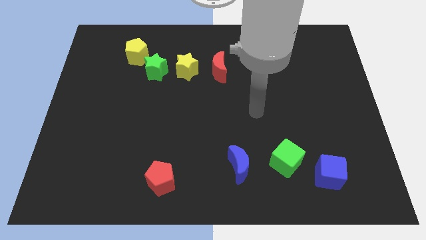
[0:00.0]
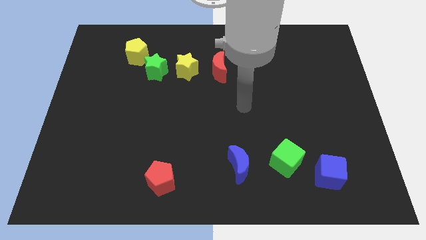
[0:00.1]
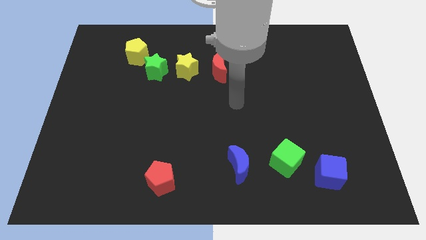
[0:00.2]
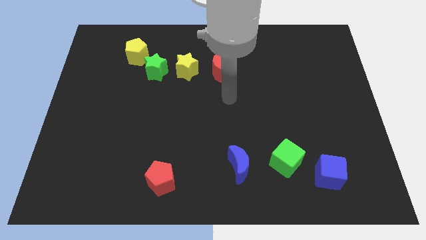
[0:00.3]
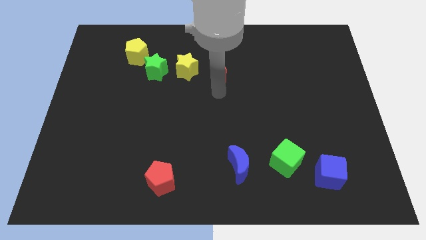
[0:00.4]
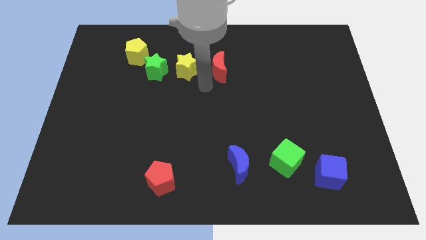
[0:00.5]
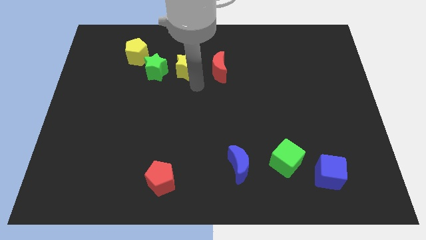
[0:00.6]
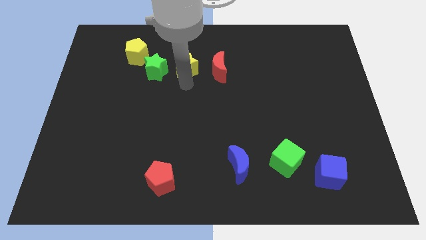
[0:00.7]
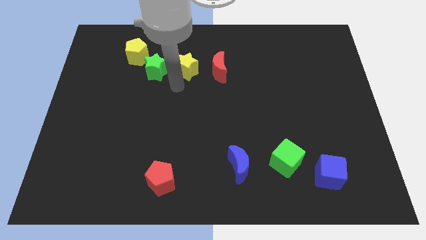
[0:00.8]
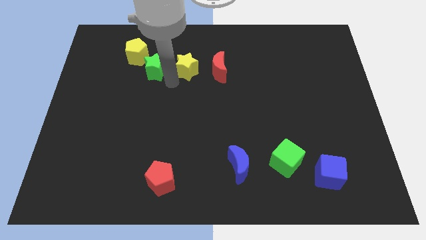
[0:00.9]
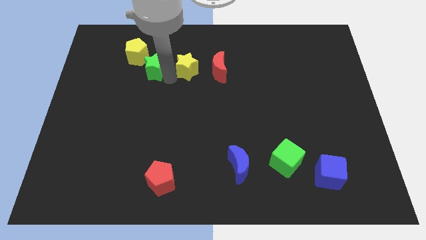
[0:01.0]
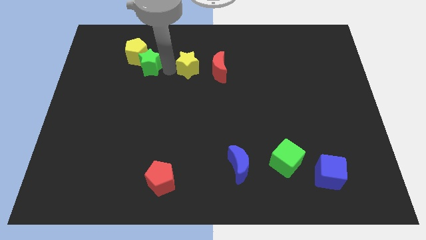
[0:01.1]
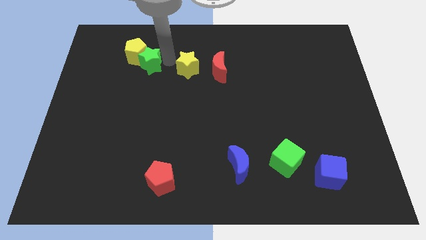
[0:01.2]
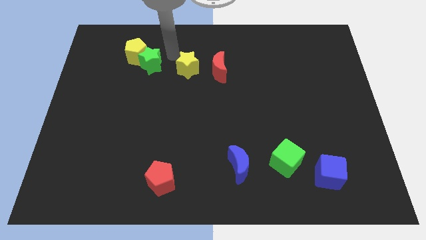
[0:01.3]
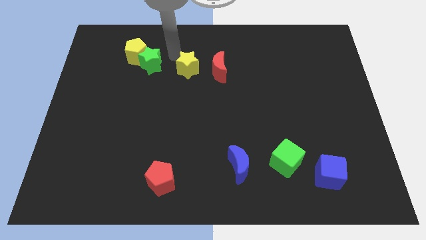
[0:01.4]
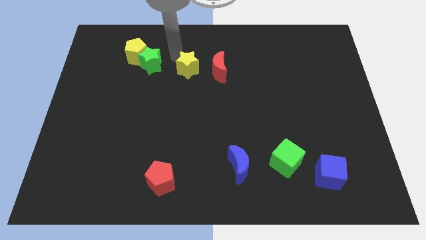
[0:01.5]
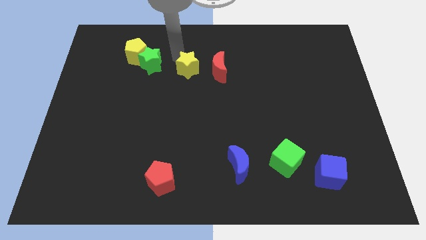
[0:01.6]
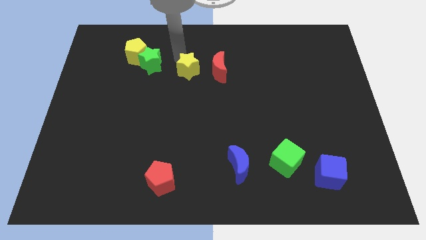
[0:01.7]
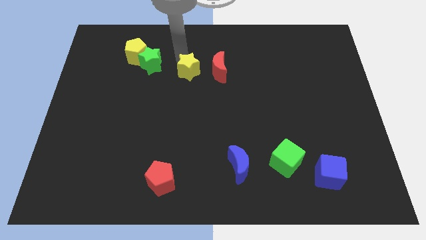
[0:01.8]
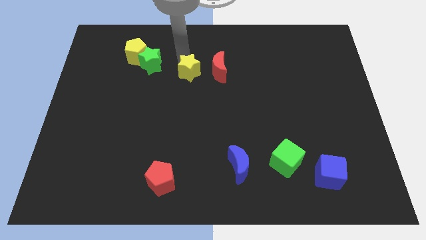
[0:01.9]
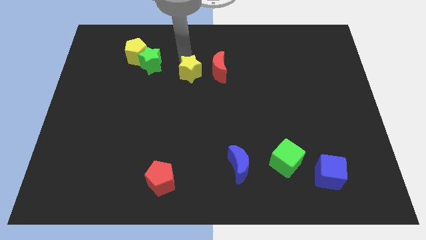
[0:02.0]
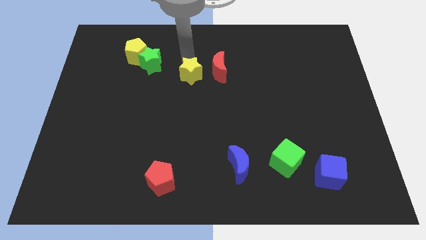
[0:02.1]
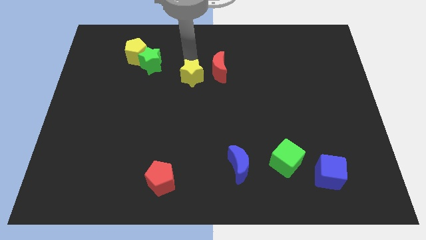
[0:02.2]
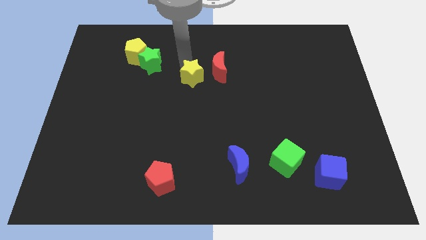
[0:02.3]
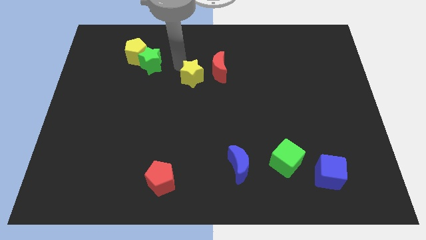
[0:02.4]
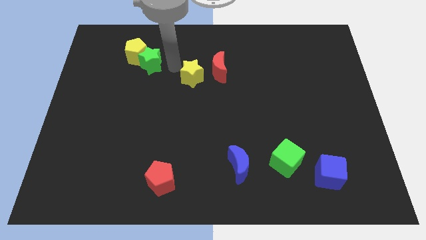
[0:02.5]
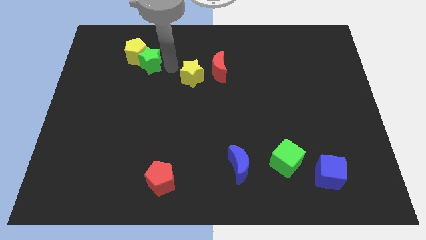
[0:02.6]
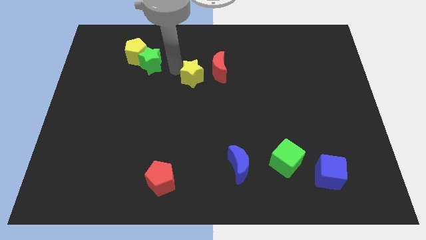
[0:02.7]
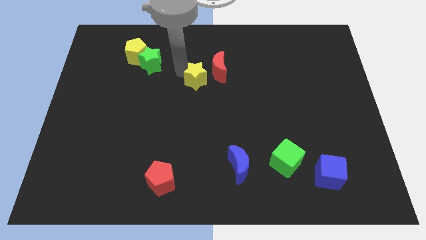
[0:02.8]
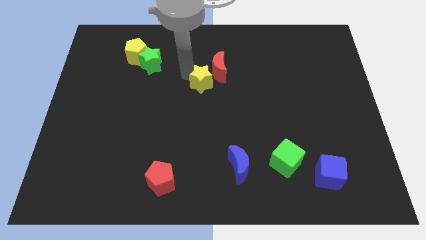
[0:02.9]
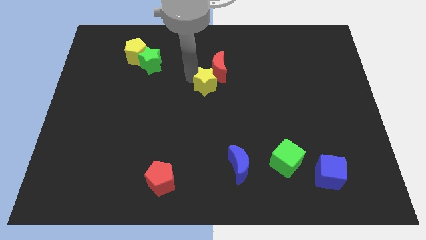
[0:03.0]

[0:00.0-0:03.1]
move the yellow star downwards and then right slightly

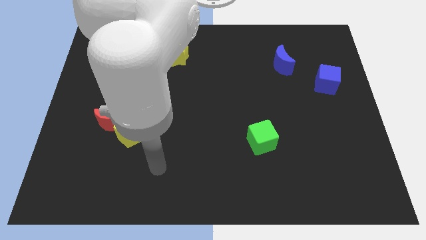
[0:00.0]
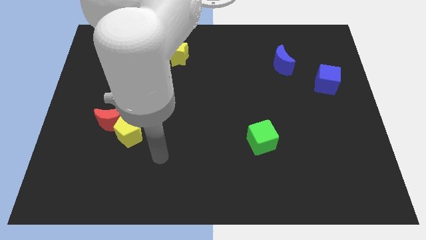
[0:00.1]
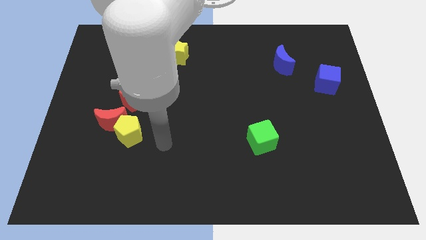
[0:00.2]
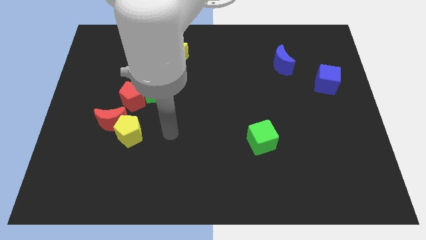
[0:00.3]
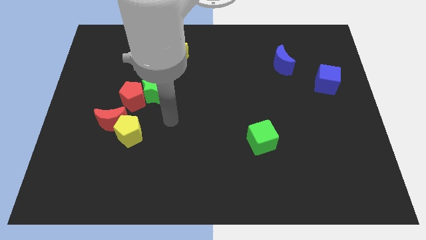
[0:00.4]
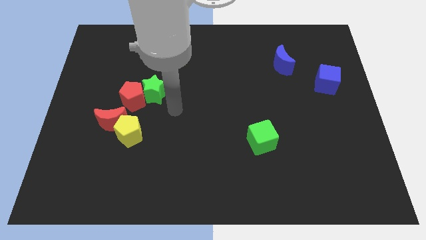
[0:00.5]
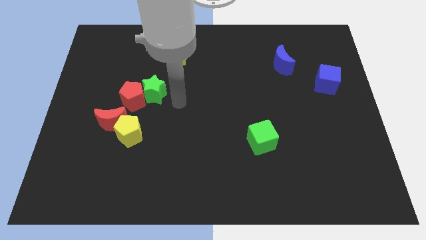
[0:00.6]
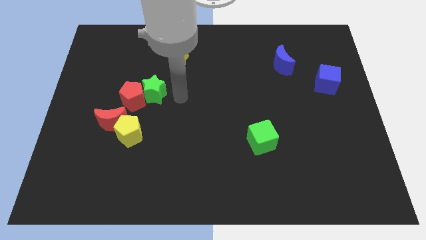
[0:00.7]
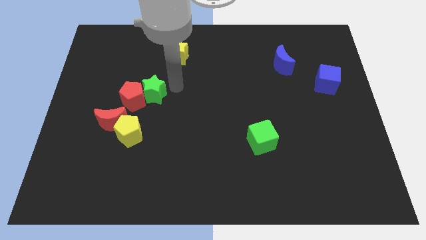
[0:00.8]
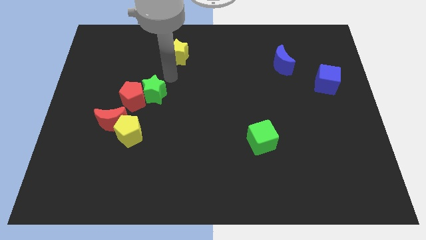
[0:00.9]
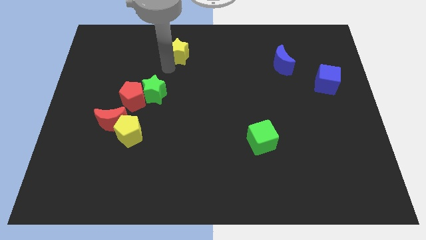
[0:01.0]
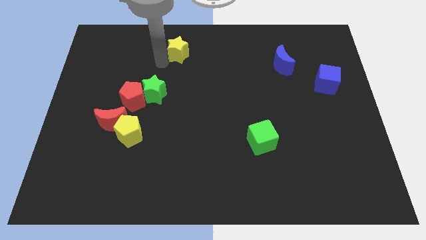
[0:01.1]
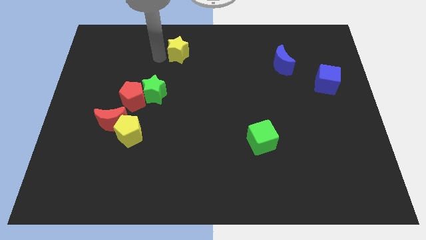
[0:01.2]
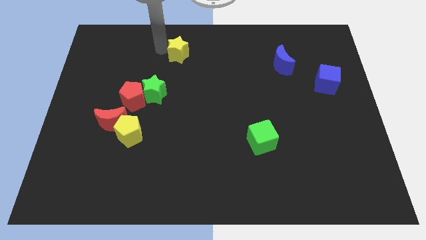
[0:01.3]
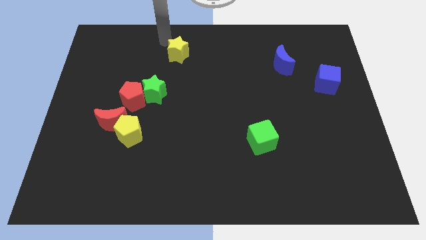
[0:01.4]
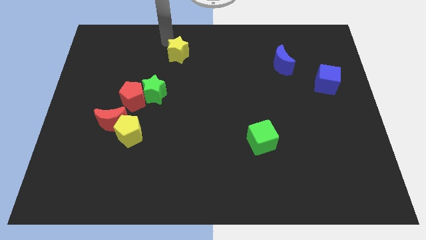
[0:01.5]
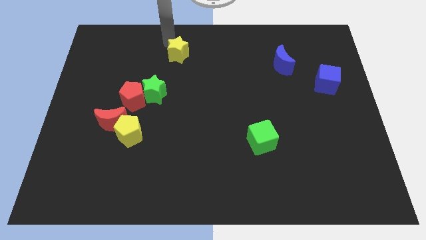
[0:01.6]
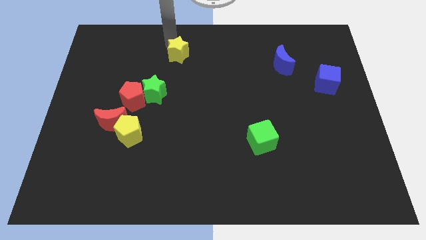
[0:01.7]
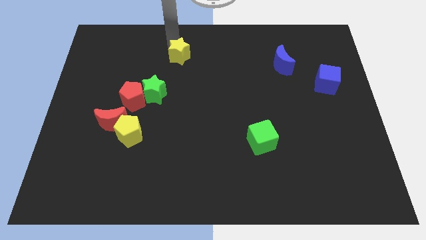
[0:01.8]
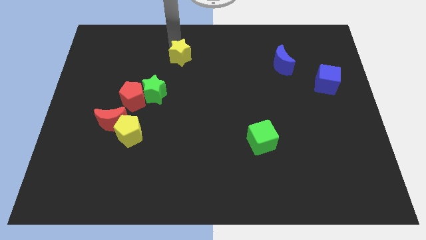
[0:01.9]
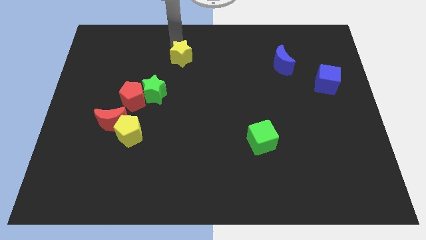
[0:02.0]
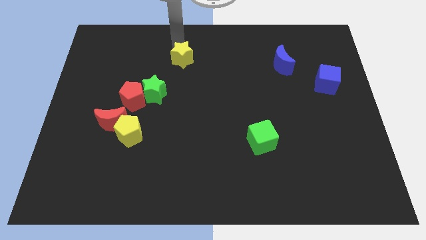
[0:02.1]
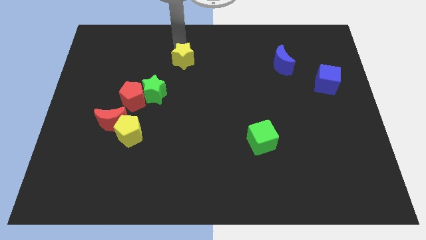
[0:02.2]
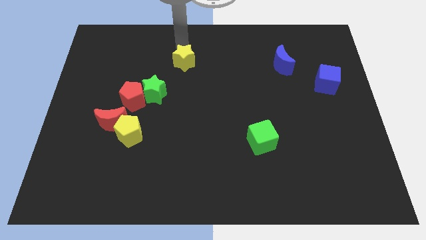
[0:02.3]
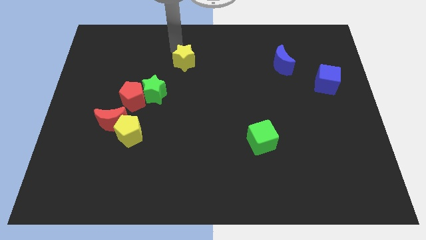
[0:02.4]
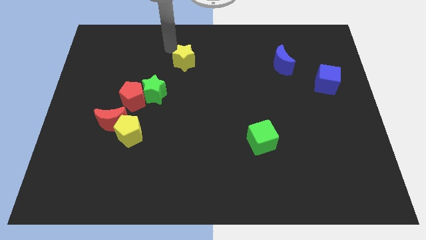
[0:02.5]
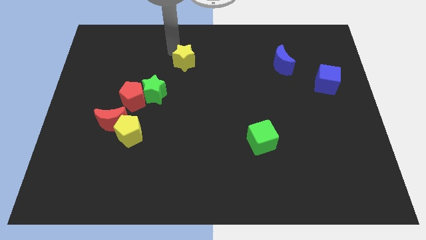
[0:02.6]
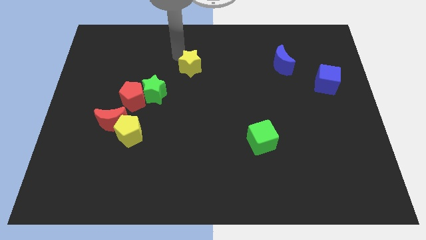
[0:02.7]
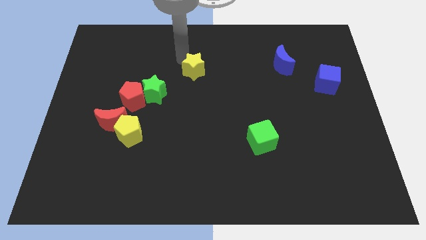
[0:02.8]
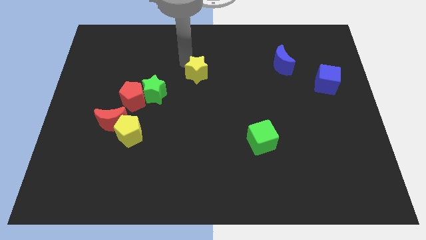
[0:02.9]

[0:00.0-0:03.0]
push the yellow star a bit downwards and right

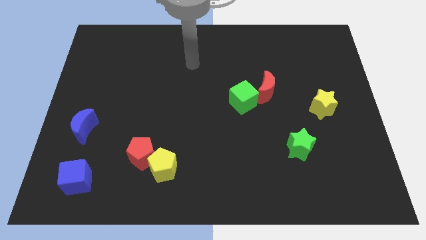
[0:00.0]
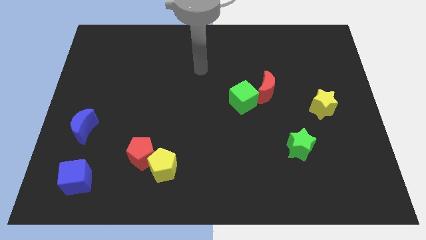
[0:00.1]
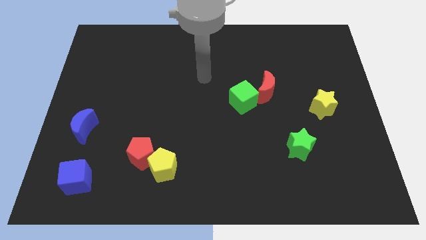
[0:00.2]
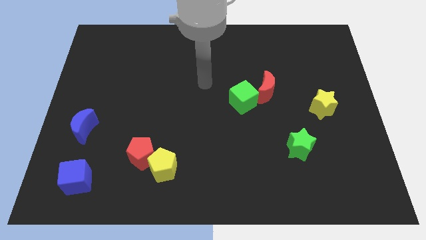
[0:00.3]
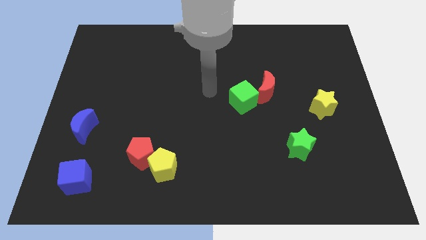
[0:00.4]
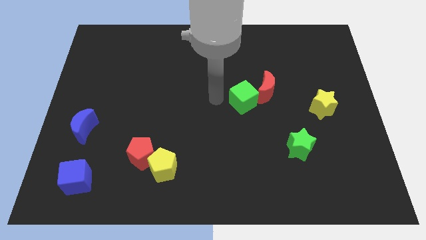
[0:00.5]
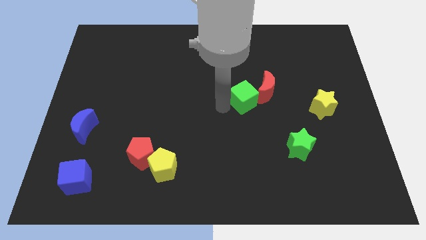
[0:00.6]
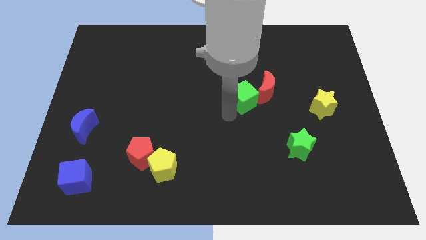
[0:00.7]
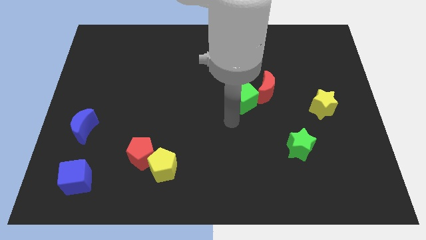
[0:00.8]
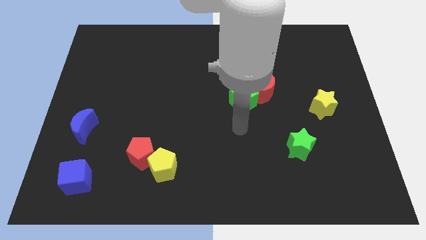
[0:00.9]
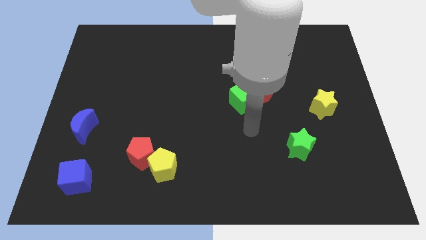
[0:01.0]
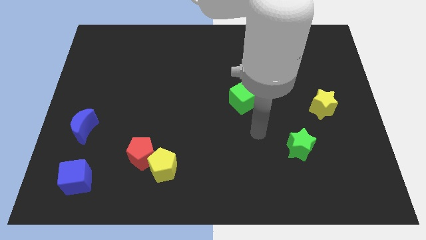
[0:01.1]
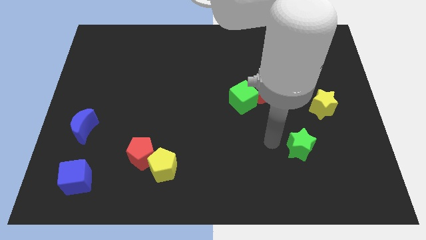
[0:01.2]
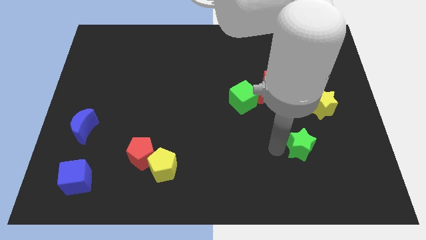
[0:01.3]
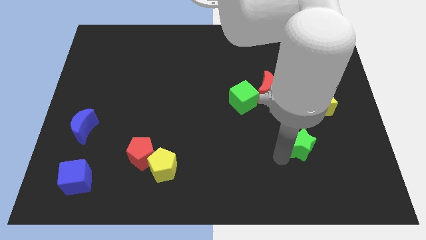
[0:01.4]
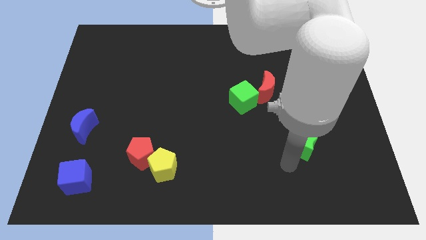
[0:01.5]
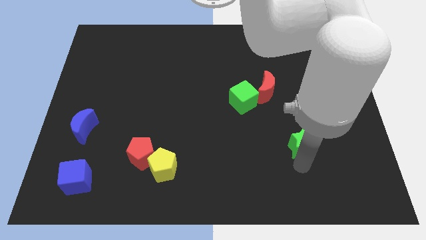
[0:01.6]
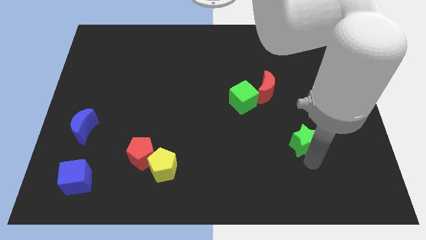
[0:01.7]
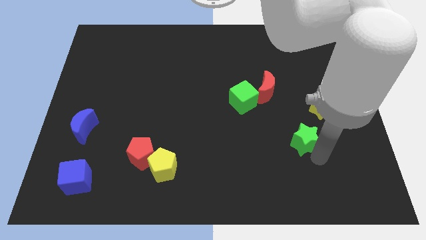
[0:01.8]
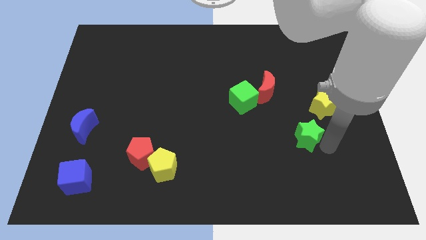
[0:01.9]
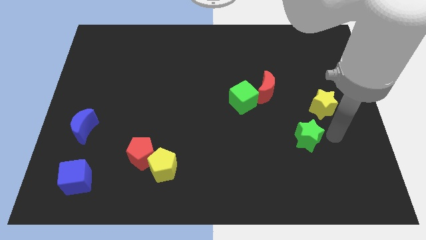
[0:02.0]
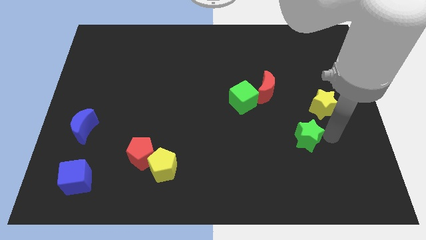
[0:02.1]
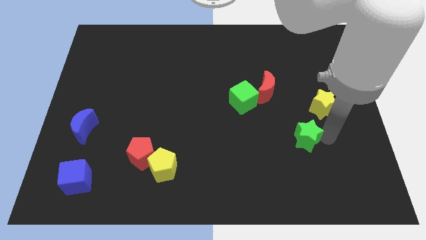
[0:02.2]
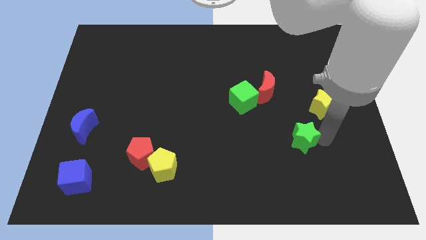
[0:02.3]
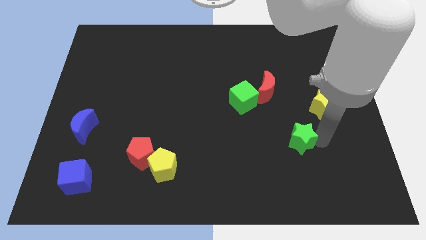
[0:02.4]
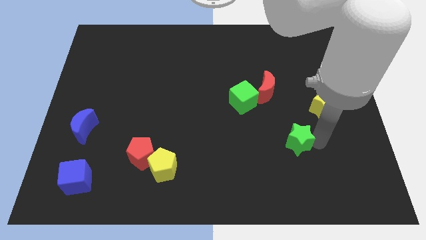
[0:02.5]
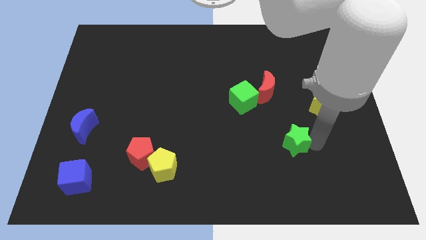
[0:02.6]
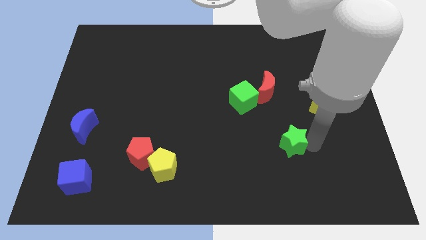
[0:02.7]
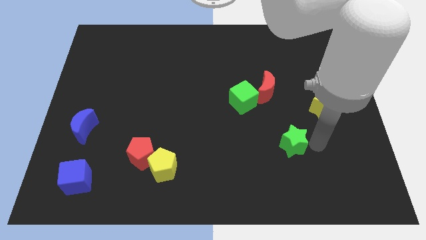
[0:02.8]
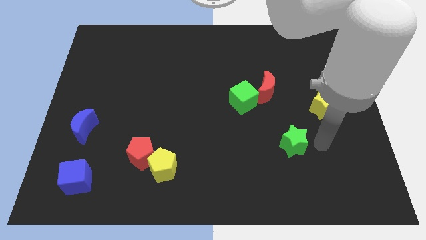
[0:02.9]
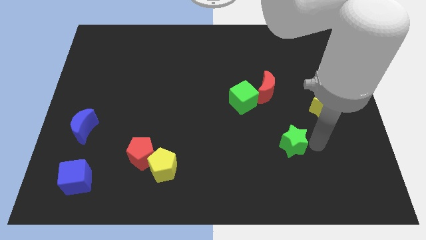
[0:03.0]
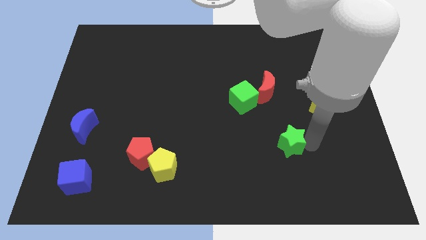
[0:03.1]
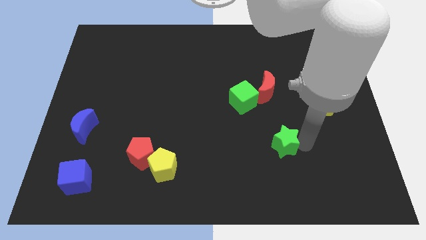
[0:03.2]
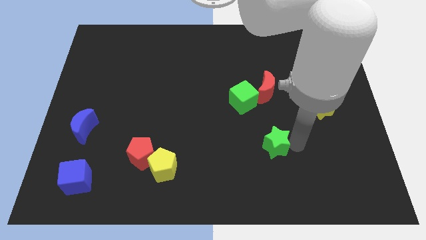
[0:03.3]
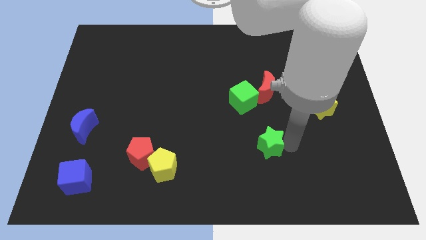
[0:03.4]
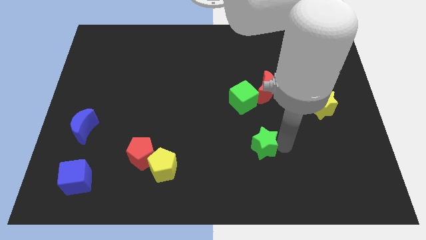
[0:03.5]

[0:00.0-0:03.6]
slightly move the green star left
